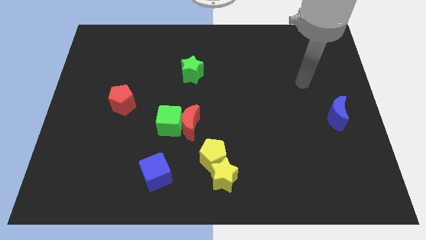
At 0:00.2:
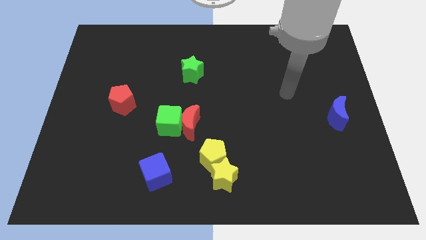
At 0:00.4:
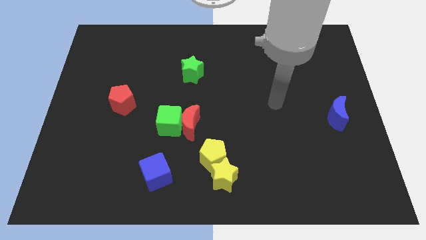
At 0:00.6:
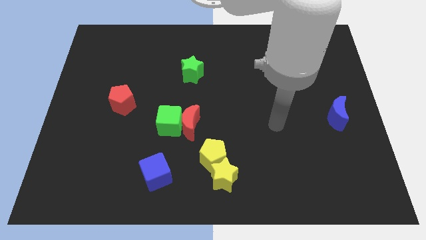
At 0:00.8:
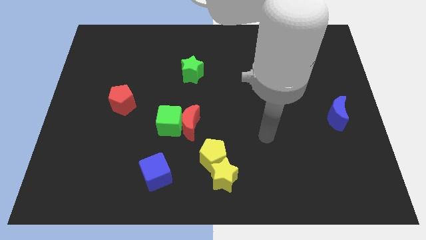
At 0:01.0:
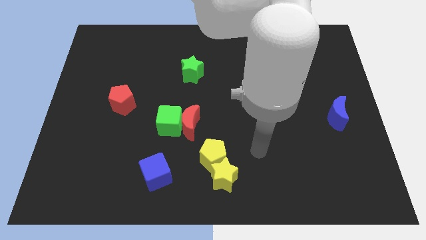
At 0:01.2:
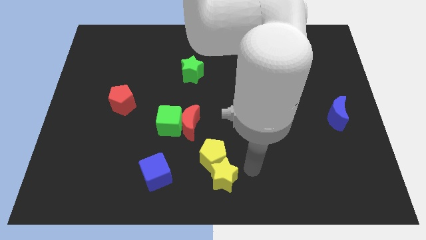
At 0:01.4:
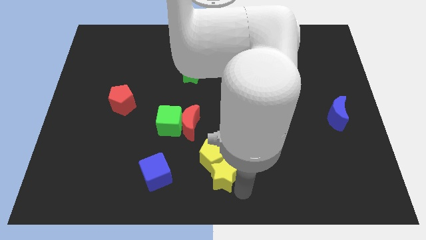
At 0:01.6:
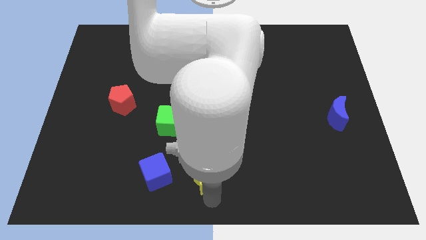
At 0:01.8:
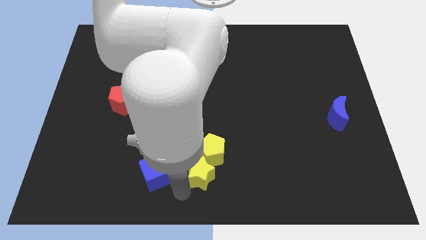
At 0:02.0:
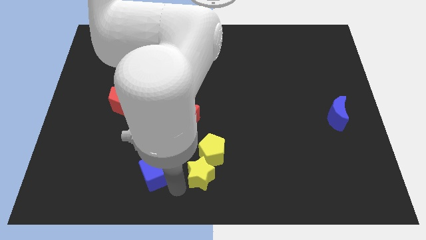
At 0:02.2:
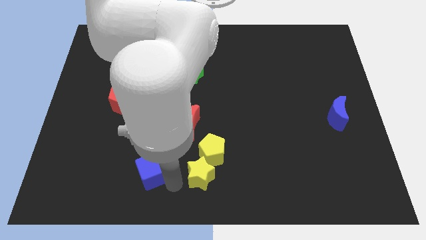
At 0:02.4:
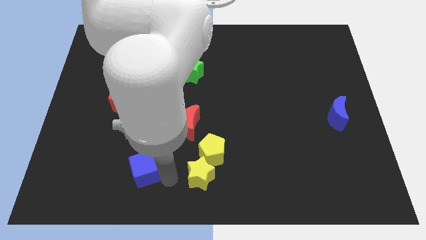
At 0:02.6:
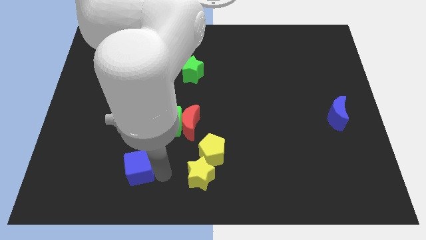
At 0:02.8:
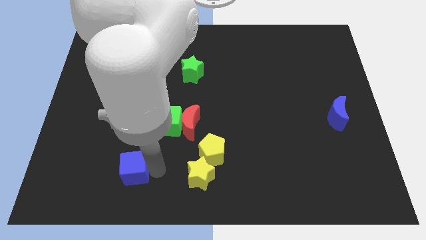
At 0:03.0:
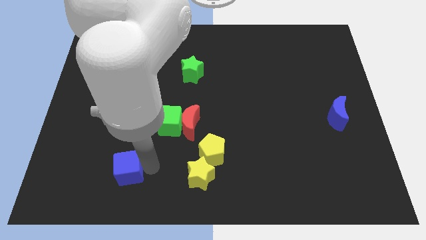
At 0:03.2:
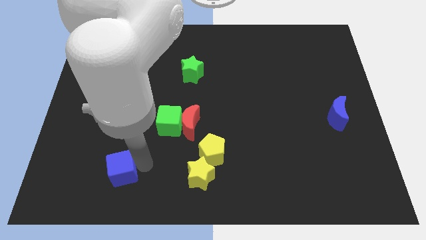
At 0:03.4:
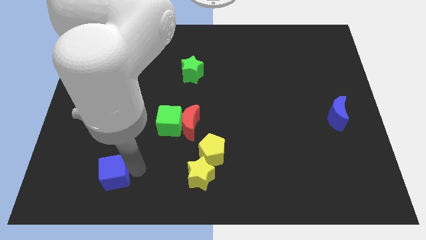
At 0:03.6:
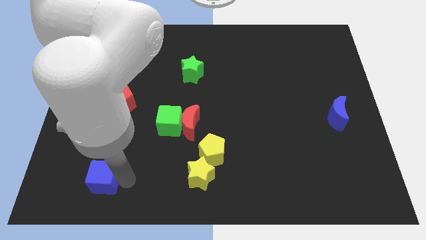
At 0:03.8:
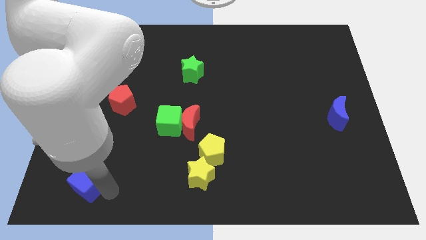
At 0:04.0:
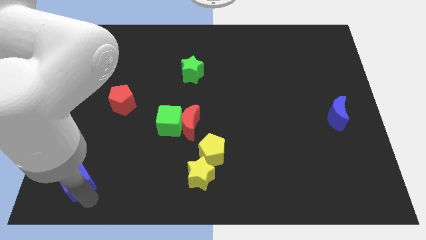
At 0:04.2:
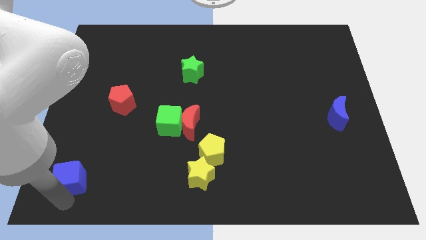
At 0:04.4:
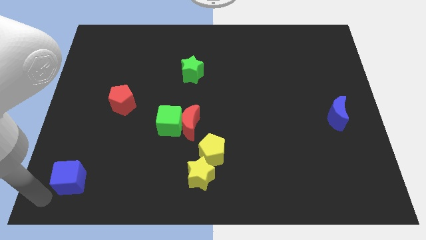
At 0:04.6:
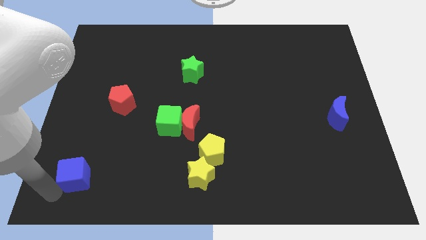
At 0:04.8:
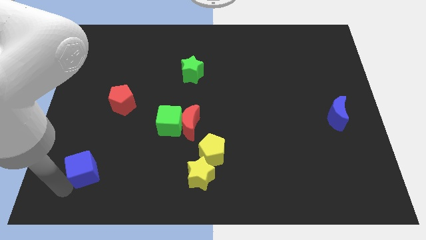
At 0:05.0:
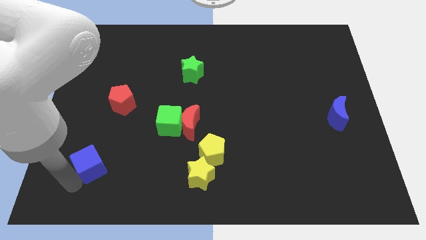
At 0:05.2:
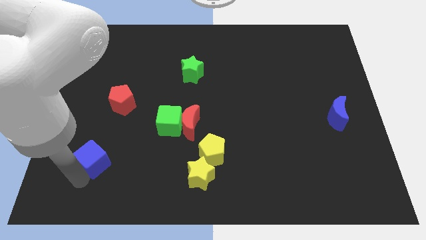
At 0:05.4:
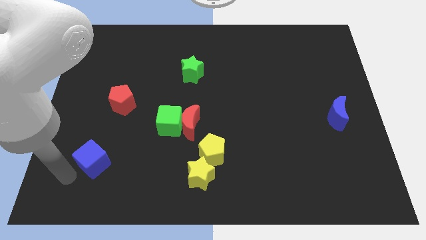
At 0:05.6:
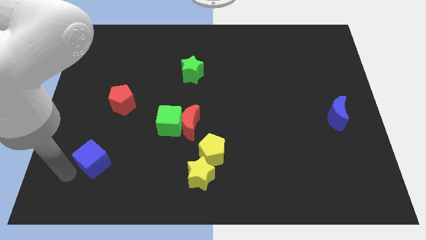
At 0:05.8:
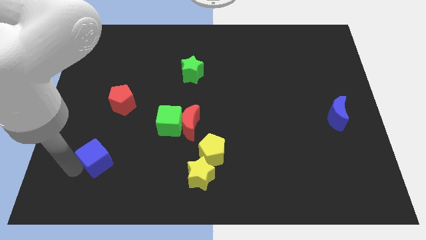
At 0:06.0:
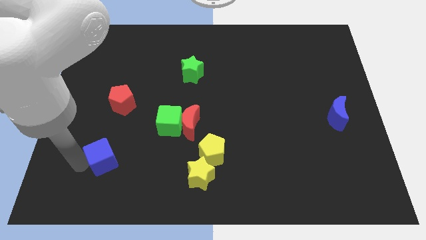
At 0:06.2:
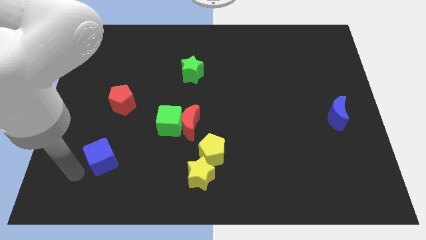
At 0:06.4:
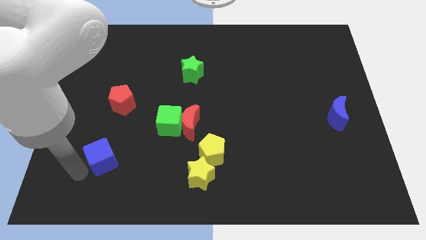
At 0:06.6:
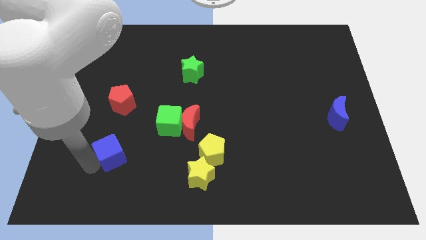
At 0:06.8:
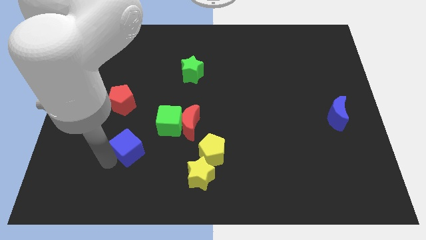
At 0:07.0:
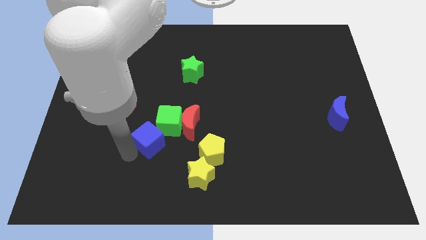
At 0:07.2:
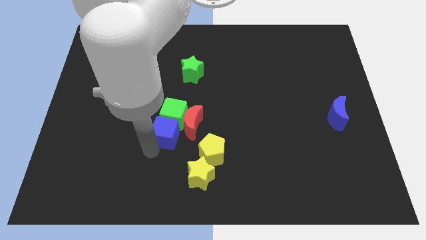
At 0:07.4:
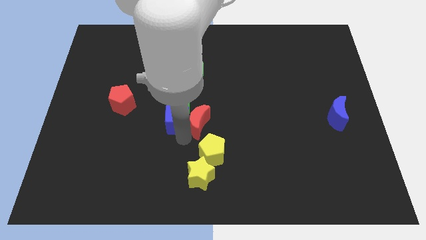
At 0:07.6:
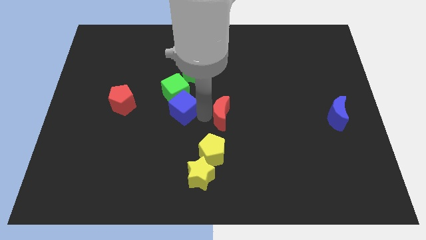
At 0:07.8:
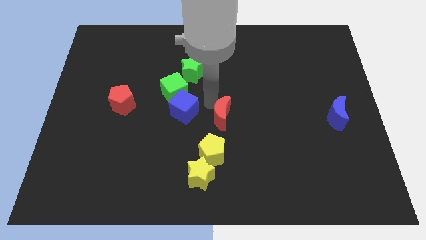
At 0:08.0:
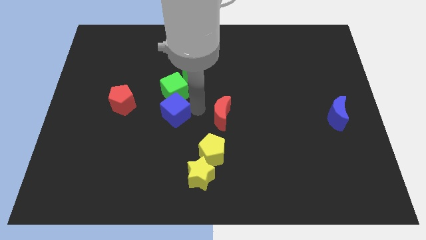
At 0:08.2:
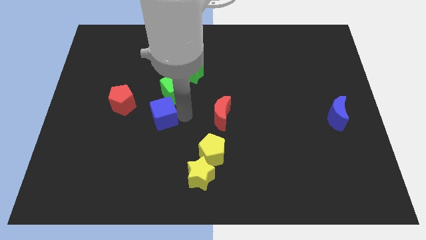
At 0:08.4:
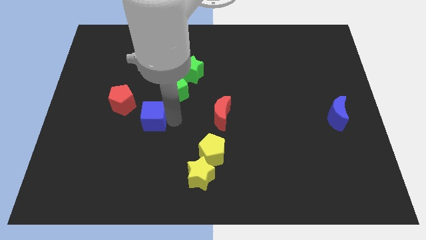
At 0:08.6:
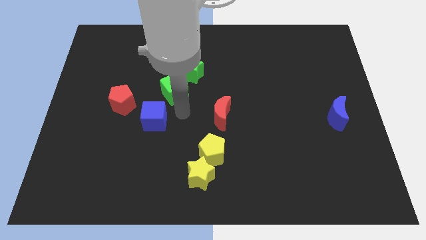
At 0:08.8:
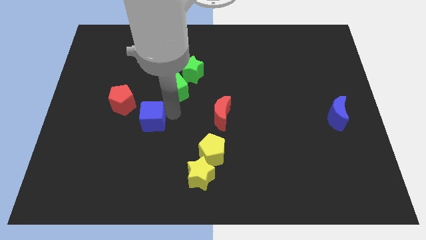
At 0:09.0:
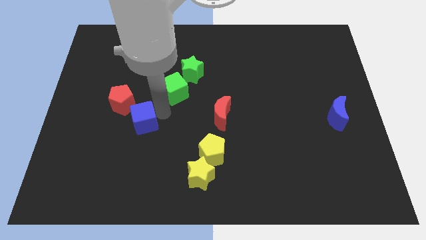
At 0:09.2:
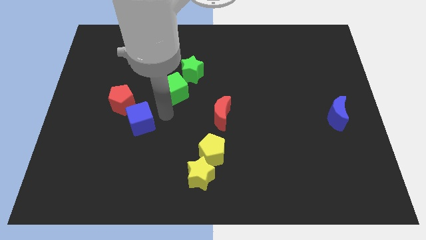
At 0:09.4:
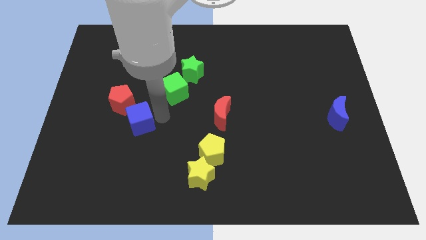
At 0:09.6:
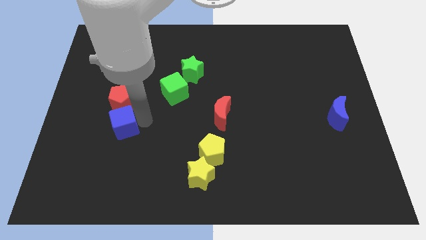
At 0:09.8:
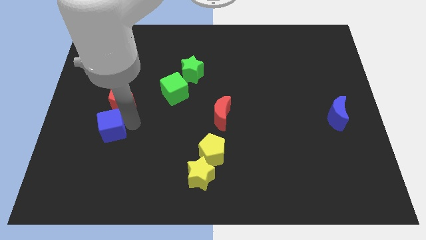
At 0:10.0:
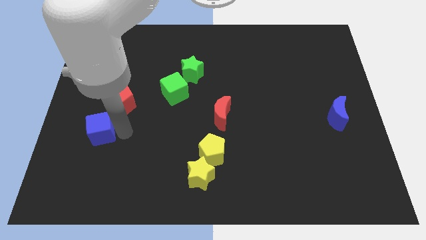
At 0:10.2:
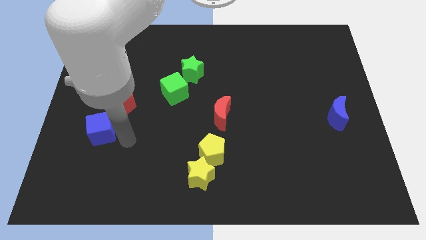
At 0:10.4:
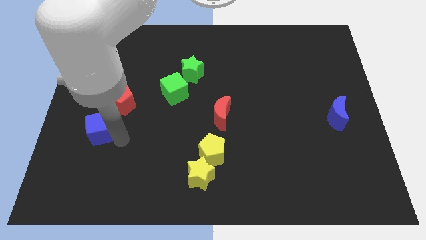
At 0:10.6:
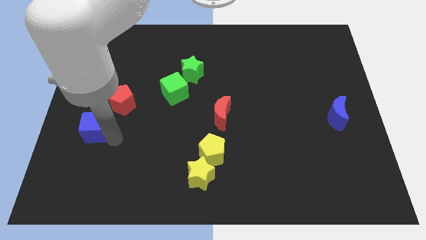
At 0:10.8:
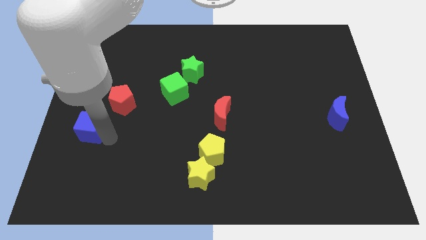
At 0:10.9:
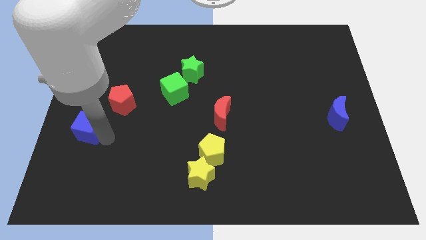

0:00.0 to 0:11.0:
move the blue cube to the left side

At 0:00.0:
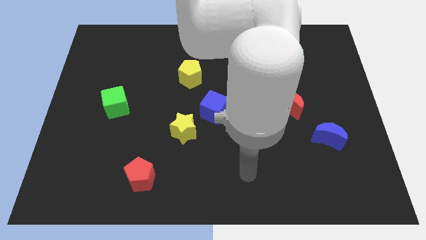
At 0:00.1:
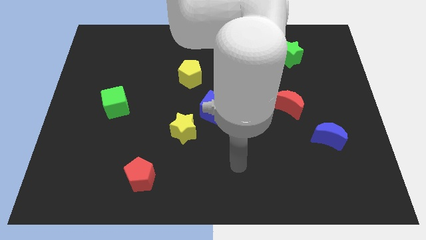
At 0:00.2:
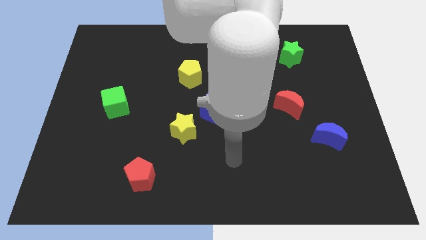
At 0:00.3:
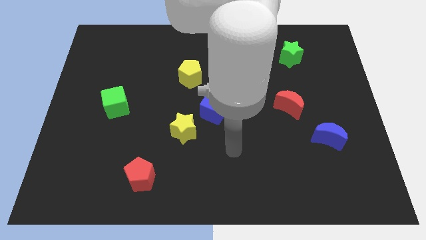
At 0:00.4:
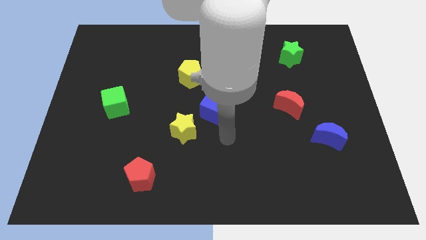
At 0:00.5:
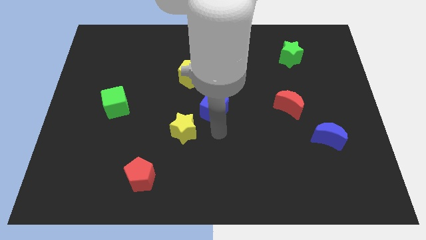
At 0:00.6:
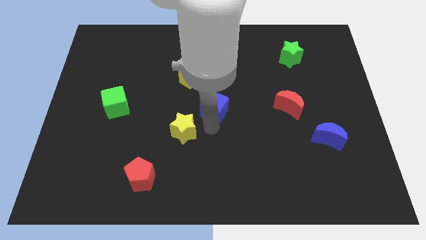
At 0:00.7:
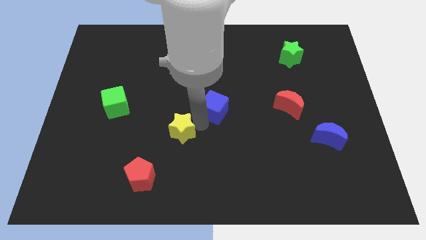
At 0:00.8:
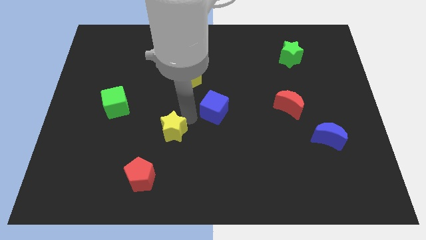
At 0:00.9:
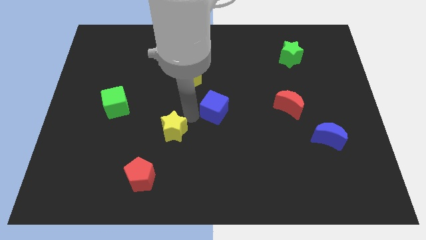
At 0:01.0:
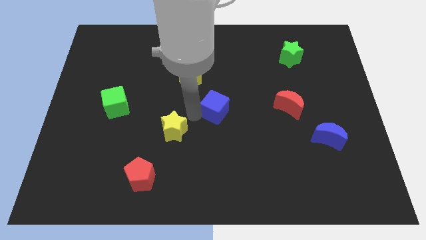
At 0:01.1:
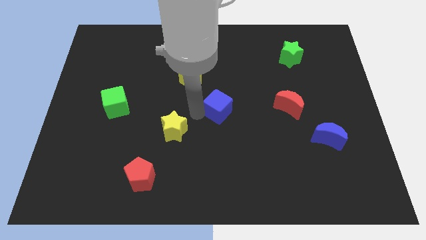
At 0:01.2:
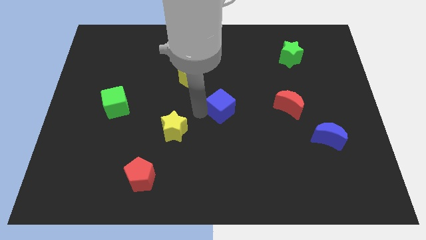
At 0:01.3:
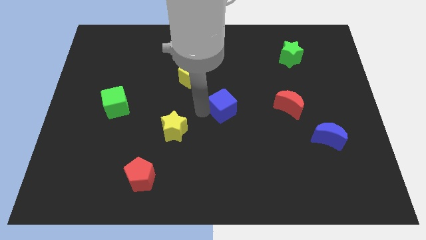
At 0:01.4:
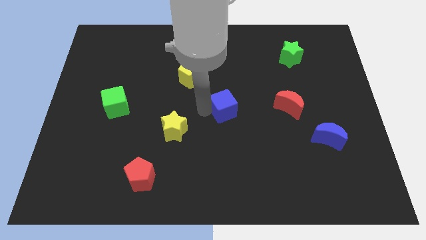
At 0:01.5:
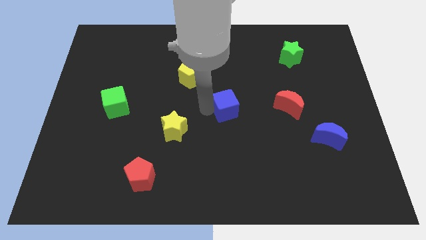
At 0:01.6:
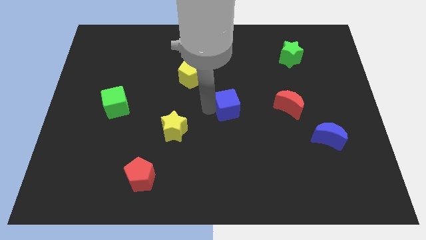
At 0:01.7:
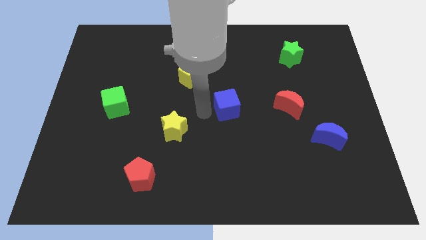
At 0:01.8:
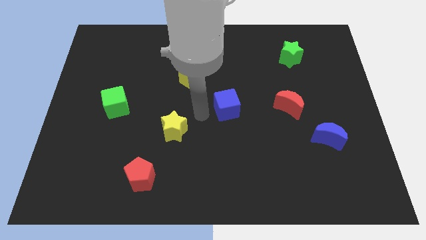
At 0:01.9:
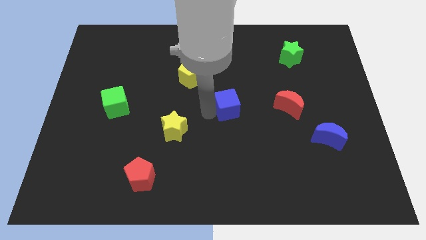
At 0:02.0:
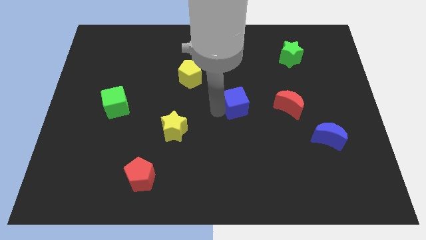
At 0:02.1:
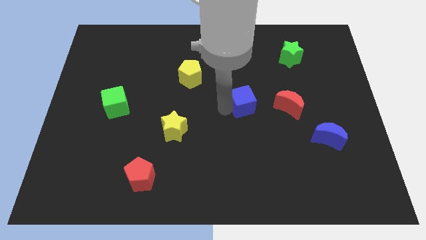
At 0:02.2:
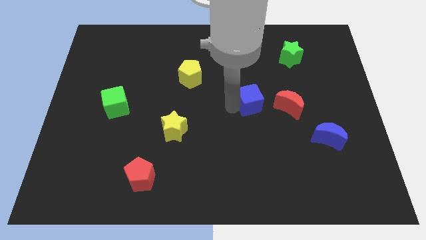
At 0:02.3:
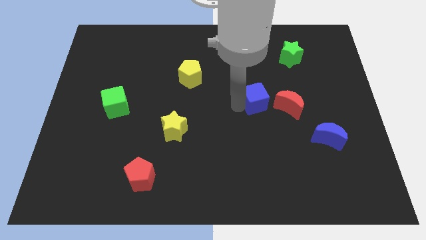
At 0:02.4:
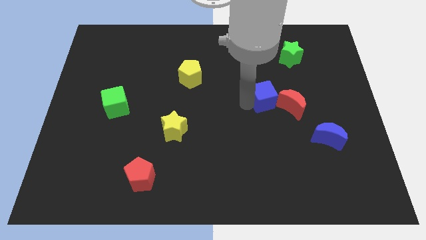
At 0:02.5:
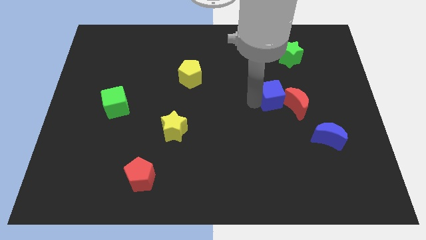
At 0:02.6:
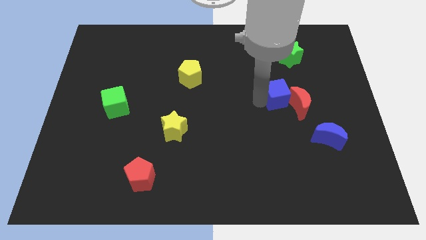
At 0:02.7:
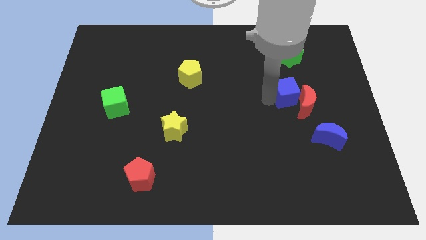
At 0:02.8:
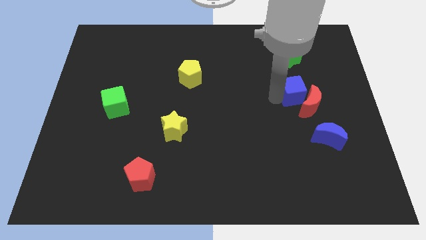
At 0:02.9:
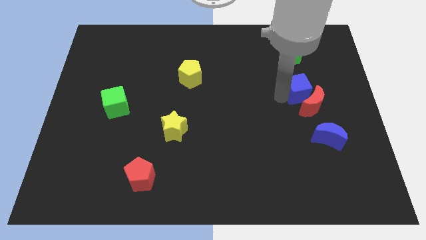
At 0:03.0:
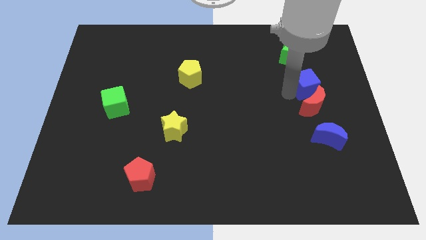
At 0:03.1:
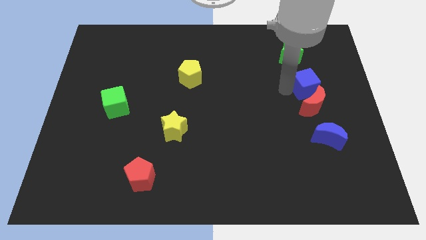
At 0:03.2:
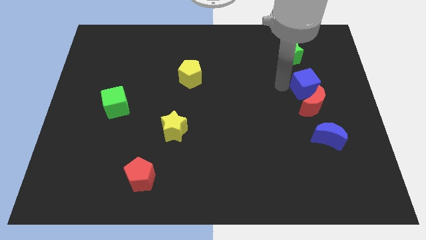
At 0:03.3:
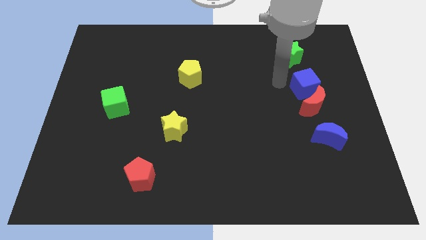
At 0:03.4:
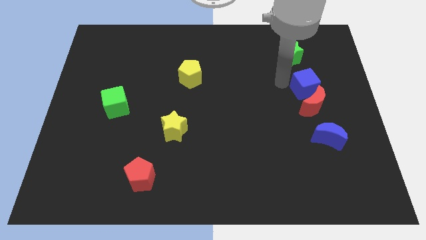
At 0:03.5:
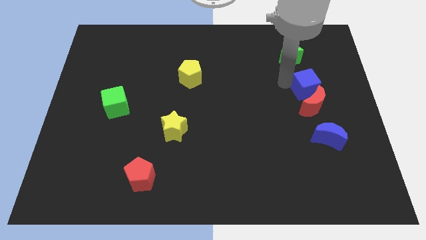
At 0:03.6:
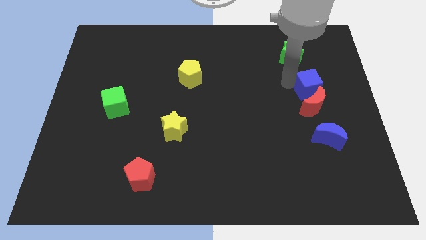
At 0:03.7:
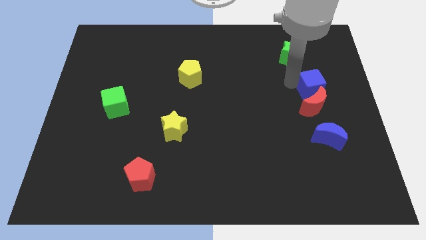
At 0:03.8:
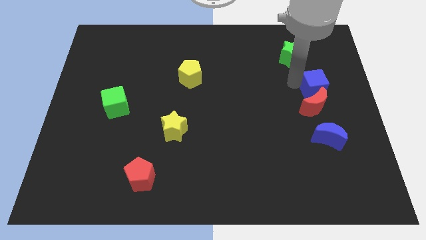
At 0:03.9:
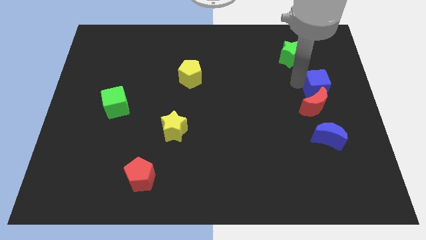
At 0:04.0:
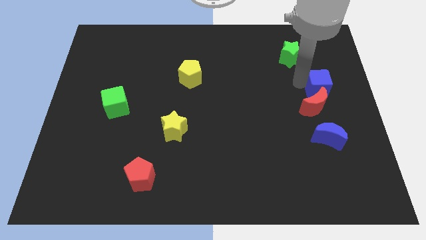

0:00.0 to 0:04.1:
push the blue cube to the right side
